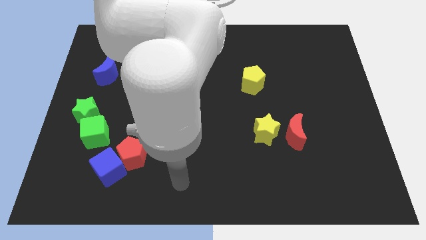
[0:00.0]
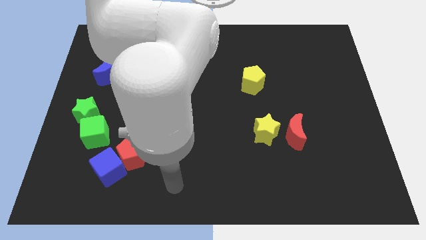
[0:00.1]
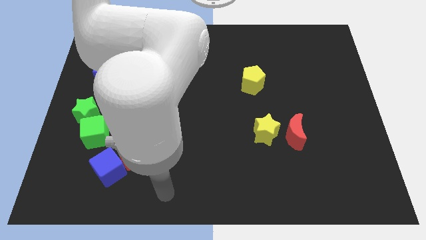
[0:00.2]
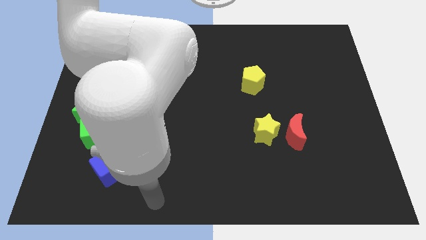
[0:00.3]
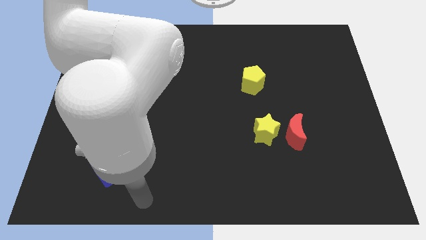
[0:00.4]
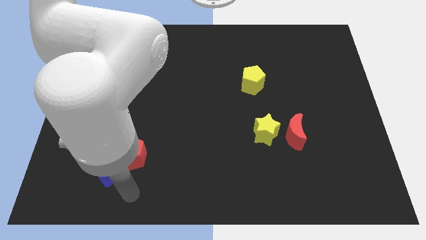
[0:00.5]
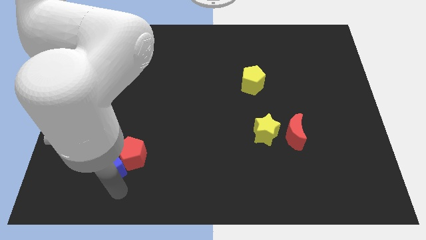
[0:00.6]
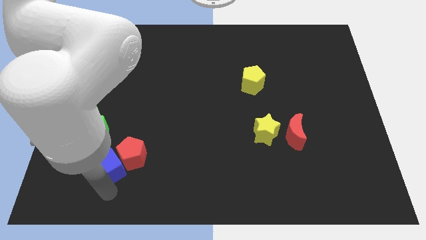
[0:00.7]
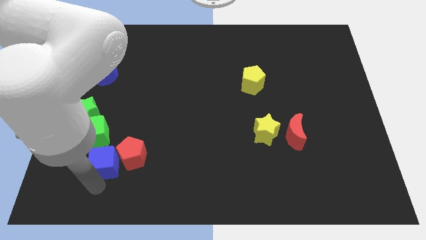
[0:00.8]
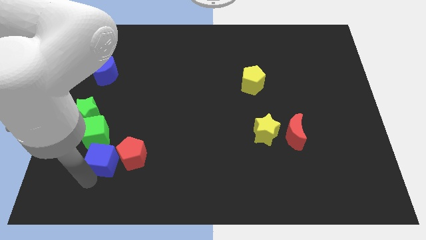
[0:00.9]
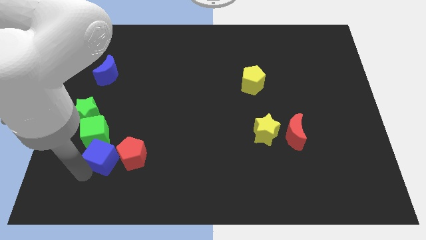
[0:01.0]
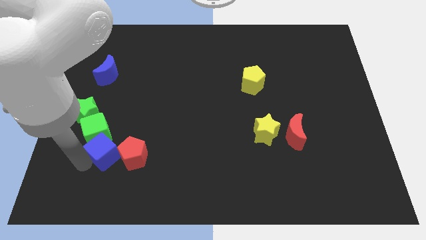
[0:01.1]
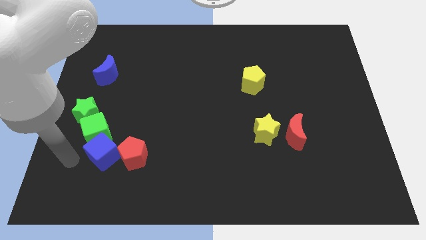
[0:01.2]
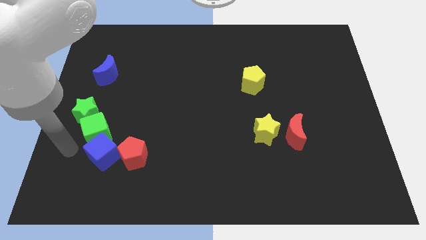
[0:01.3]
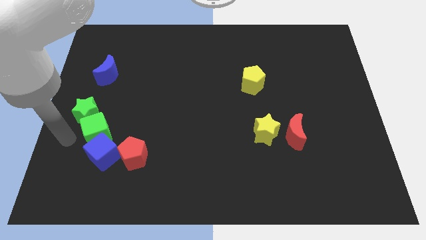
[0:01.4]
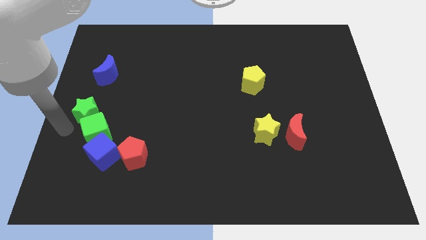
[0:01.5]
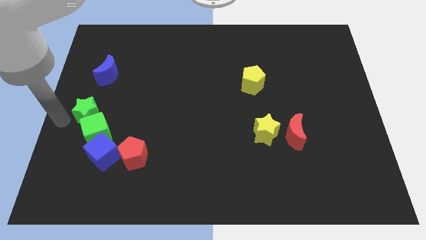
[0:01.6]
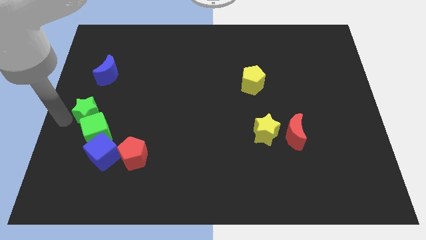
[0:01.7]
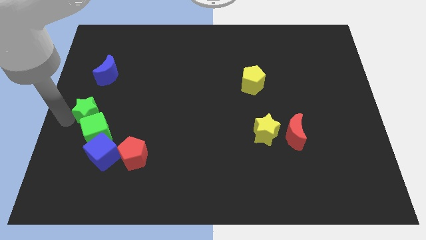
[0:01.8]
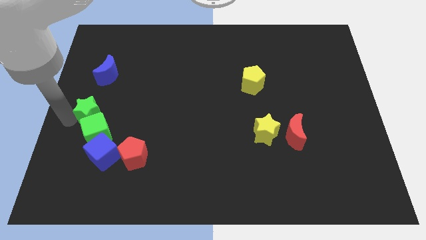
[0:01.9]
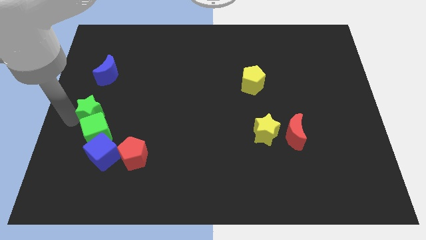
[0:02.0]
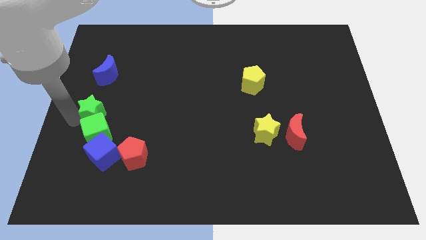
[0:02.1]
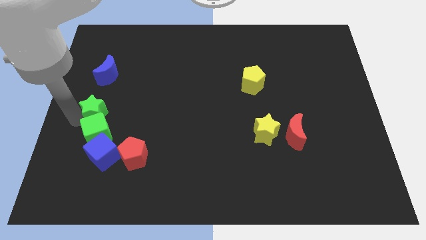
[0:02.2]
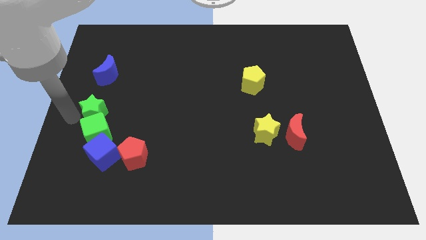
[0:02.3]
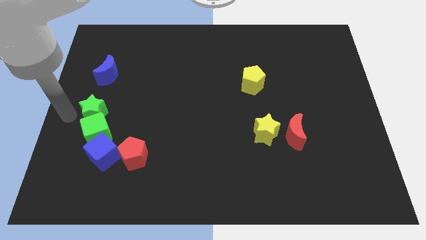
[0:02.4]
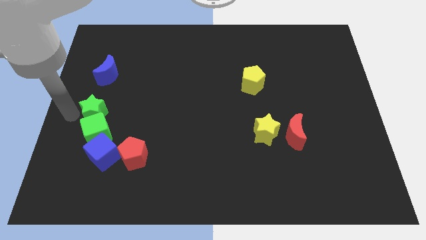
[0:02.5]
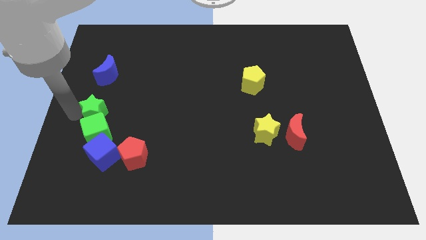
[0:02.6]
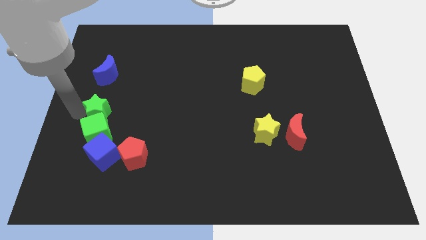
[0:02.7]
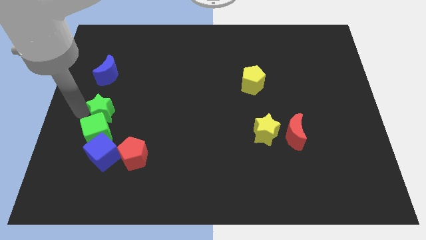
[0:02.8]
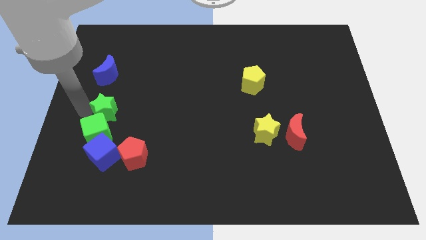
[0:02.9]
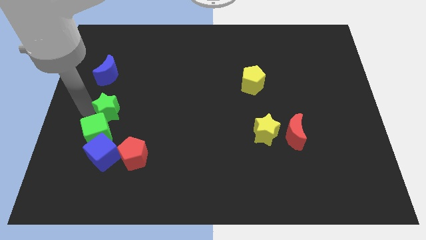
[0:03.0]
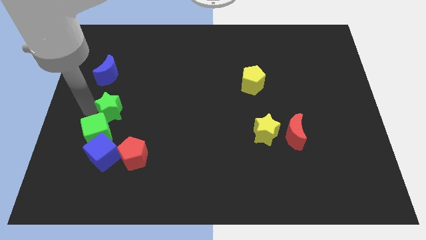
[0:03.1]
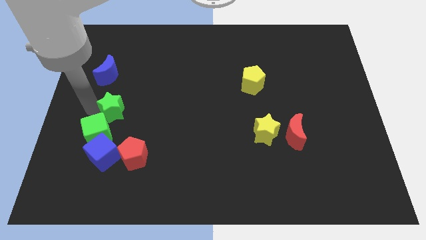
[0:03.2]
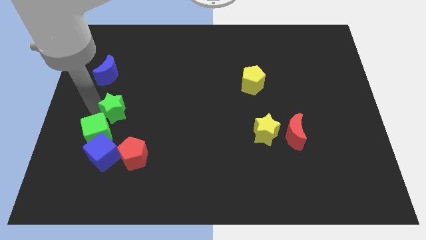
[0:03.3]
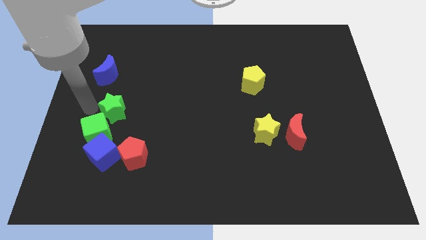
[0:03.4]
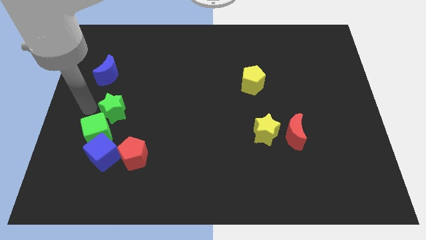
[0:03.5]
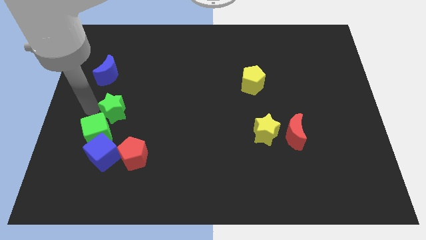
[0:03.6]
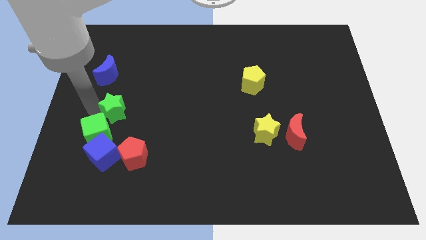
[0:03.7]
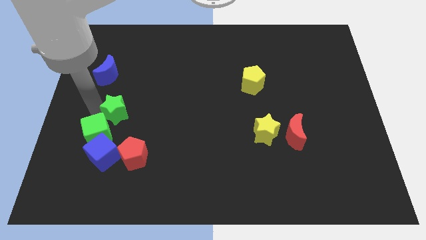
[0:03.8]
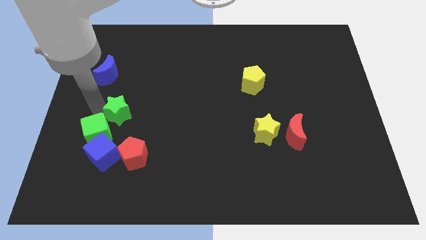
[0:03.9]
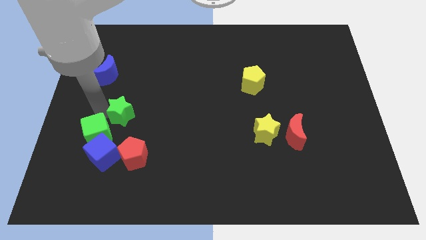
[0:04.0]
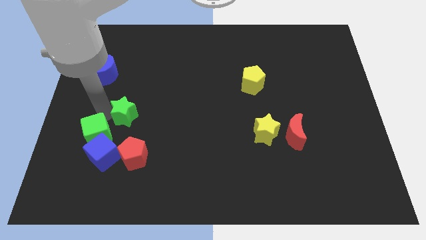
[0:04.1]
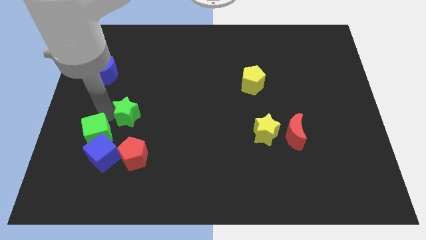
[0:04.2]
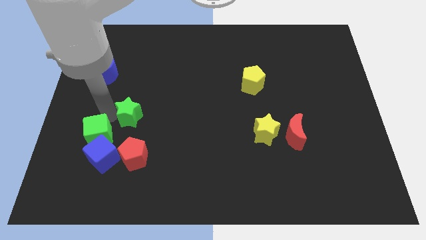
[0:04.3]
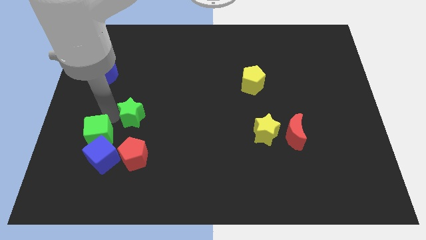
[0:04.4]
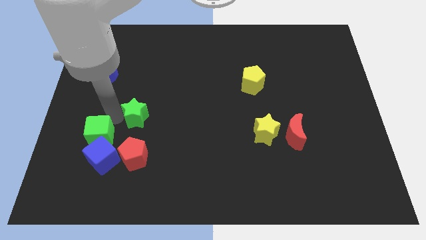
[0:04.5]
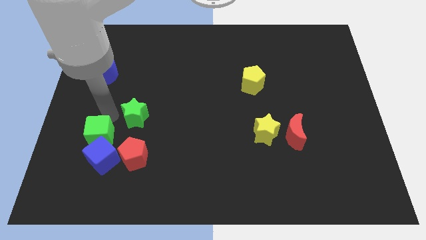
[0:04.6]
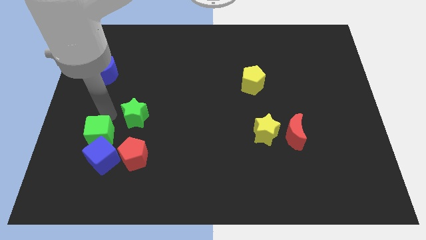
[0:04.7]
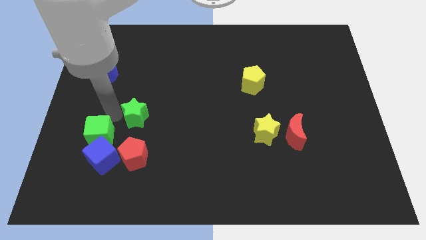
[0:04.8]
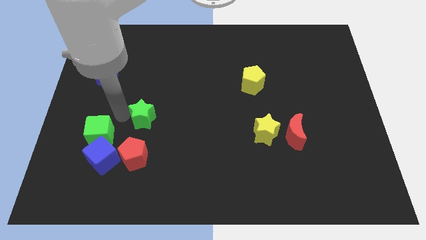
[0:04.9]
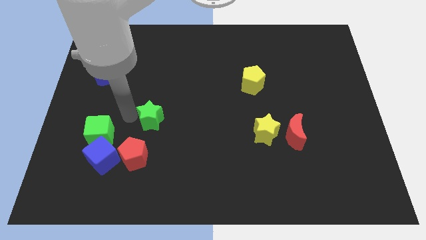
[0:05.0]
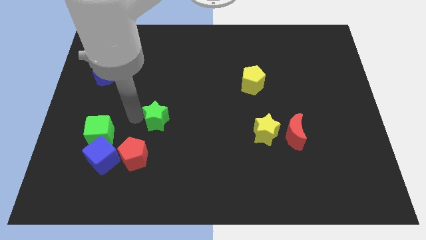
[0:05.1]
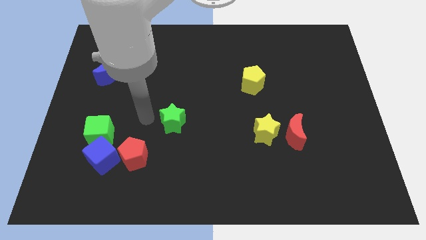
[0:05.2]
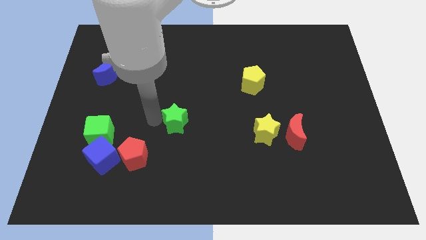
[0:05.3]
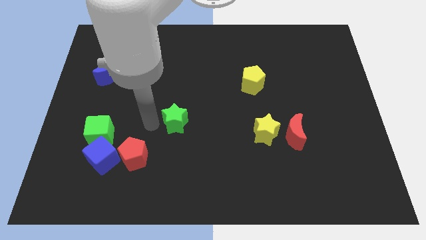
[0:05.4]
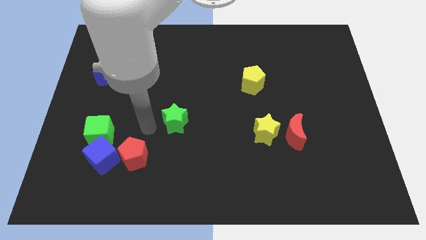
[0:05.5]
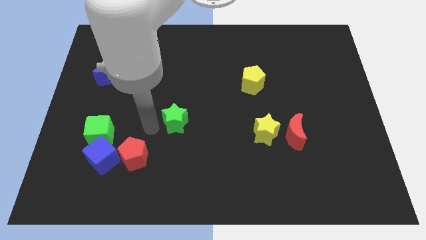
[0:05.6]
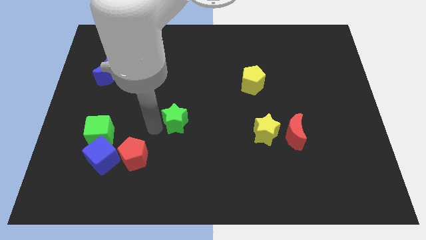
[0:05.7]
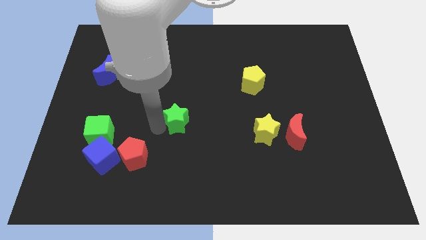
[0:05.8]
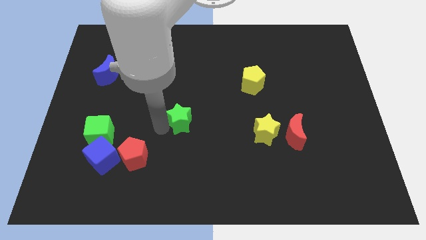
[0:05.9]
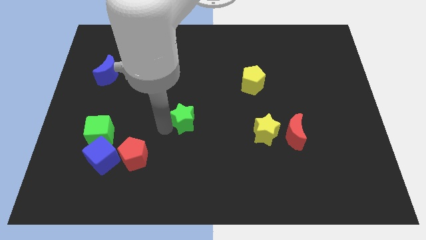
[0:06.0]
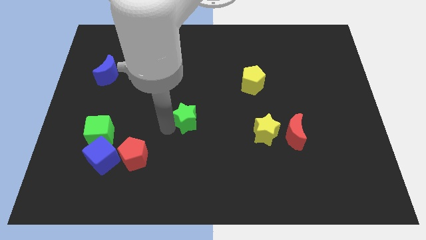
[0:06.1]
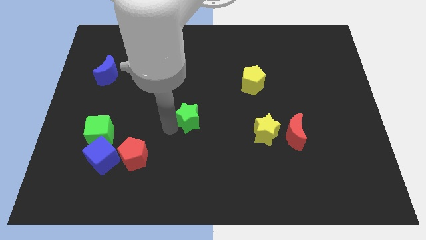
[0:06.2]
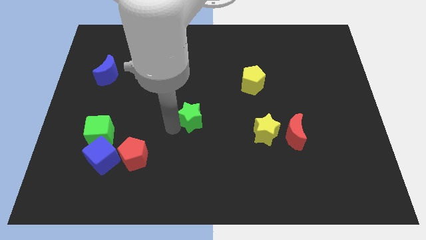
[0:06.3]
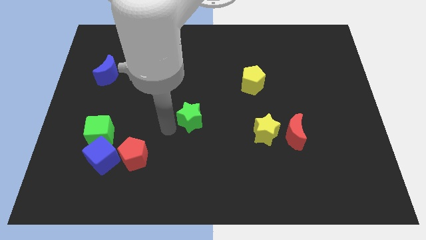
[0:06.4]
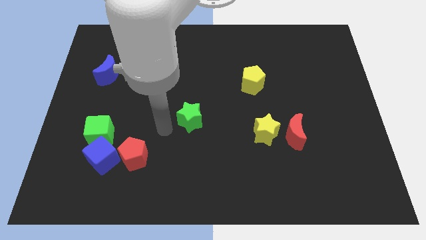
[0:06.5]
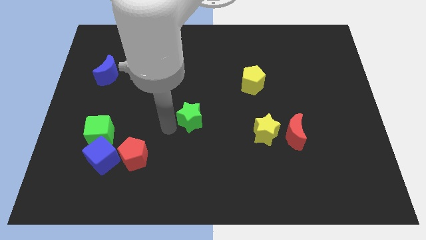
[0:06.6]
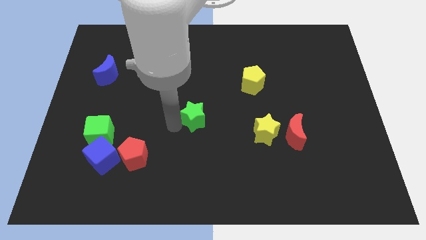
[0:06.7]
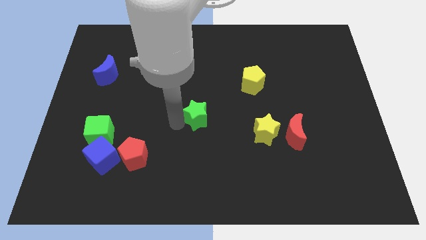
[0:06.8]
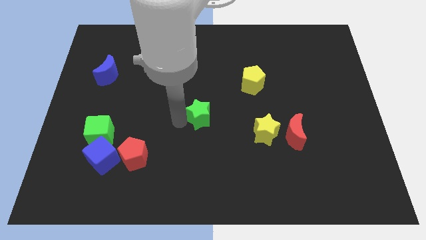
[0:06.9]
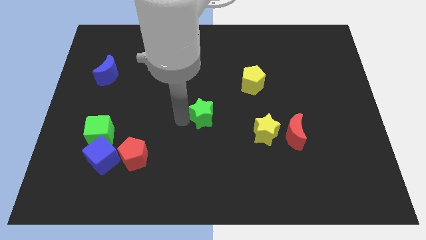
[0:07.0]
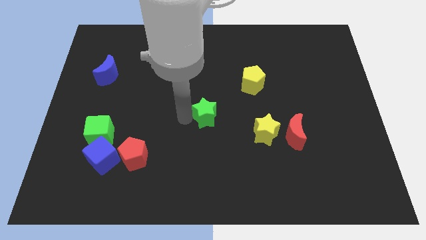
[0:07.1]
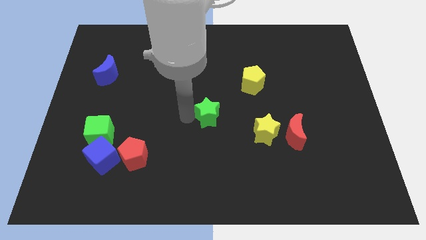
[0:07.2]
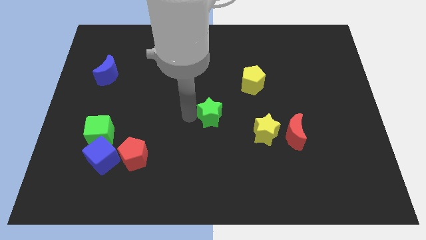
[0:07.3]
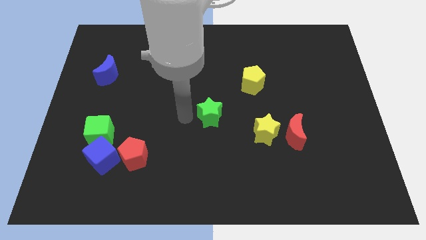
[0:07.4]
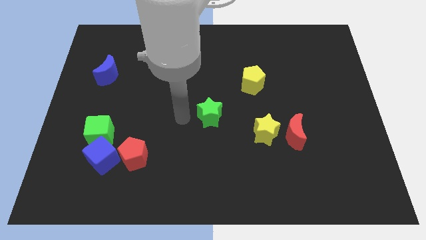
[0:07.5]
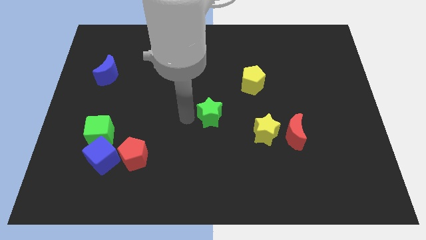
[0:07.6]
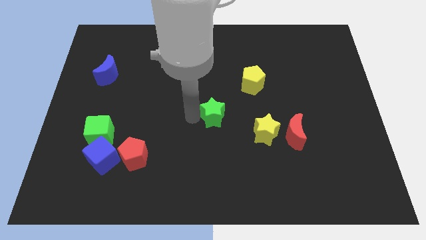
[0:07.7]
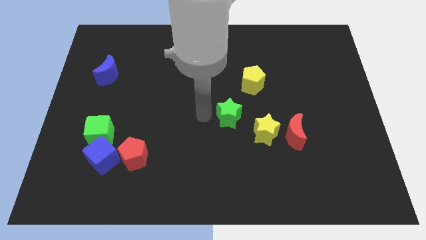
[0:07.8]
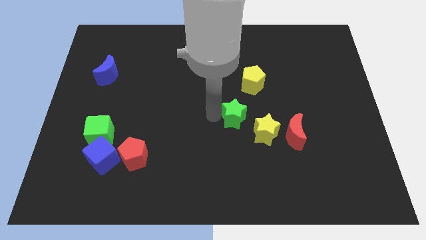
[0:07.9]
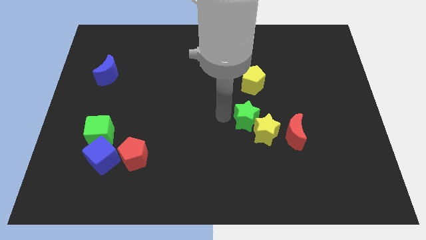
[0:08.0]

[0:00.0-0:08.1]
put the green star to the top left of the red moon
